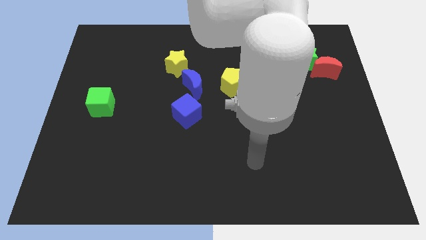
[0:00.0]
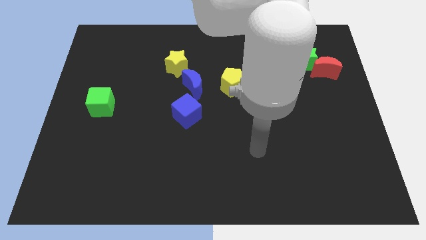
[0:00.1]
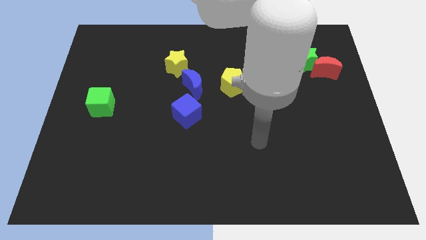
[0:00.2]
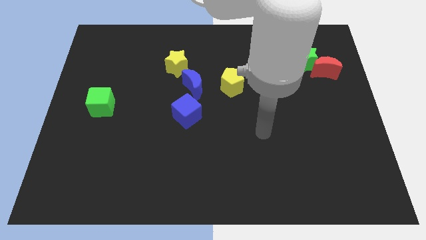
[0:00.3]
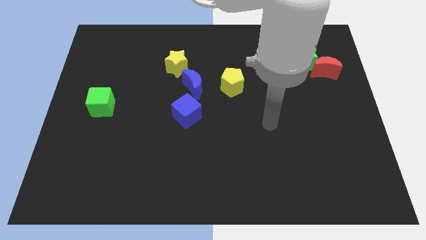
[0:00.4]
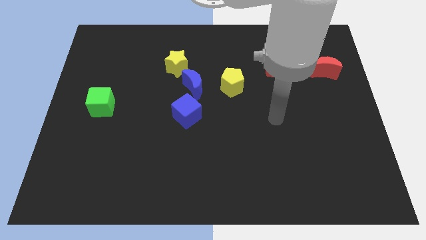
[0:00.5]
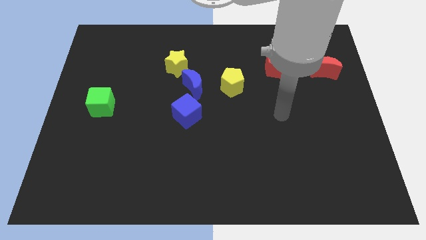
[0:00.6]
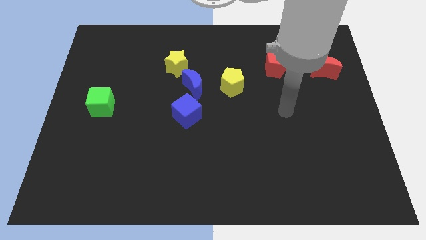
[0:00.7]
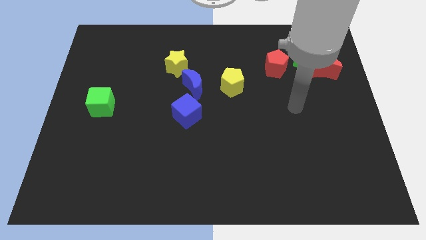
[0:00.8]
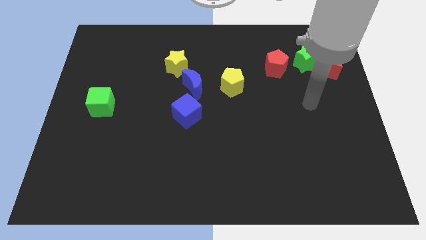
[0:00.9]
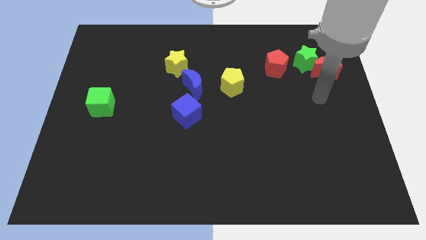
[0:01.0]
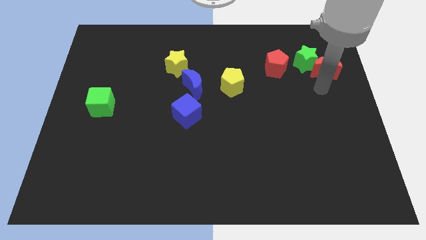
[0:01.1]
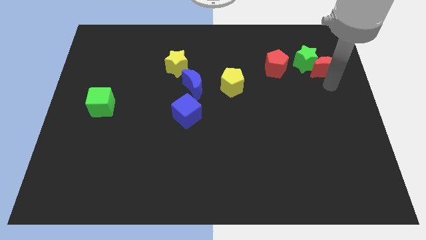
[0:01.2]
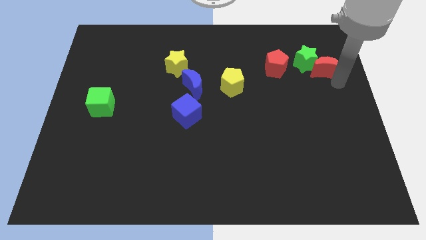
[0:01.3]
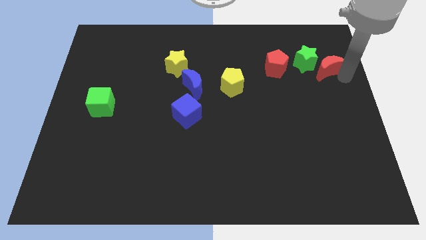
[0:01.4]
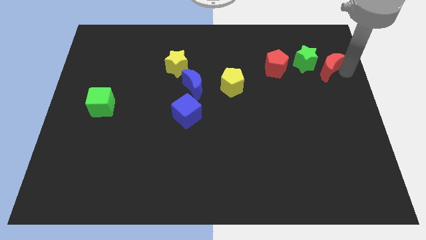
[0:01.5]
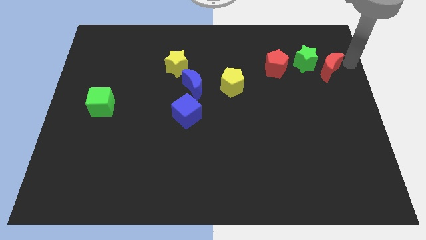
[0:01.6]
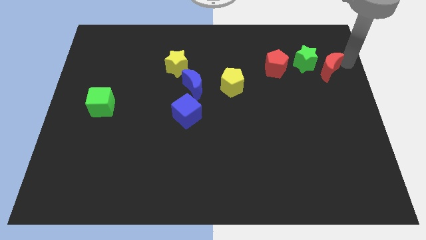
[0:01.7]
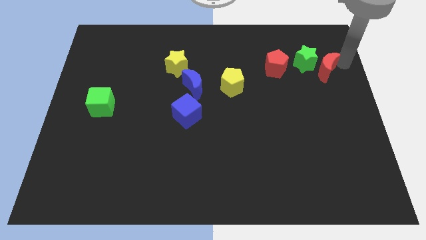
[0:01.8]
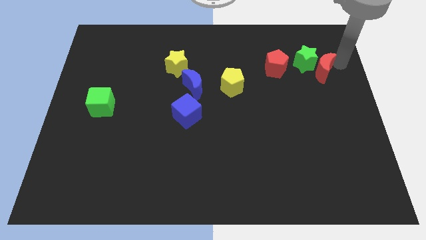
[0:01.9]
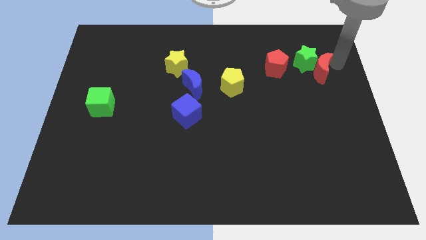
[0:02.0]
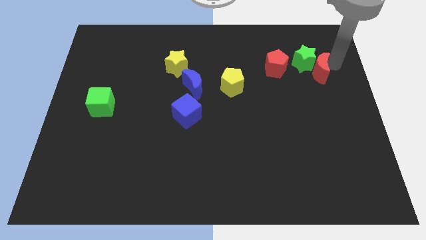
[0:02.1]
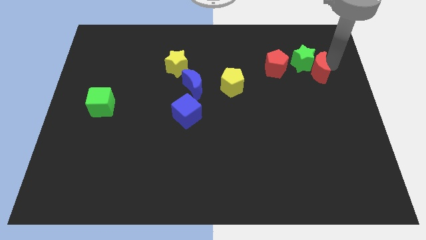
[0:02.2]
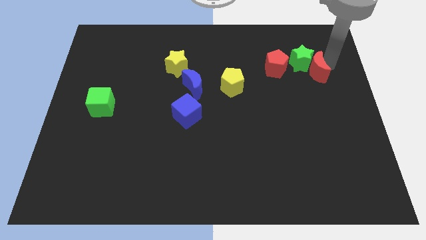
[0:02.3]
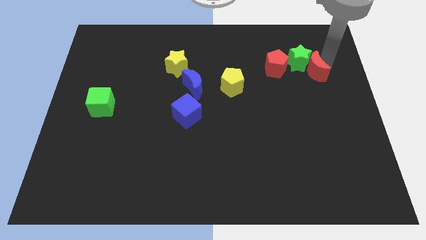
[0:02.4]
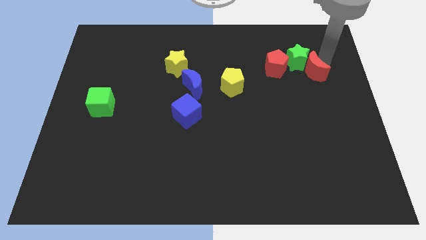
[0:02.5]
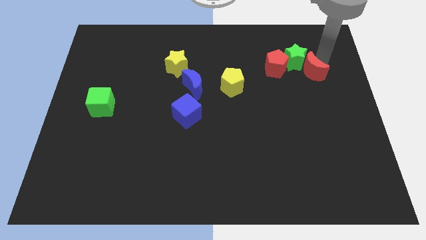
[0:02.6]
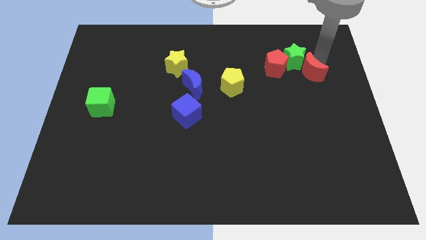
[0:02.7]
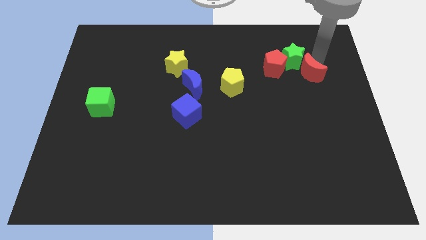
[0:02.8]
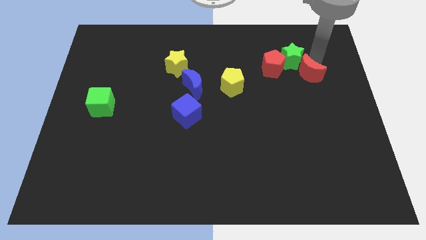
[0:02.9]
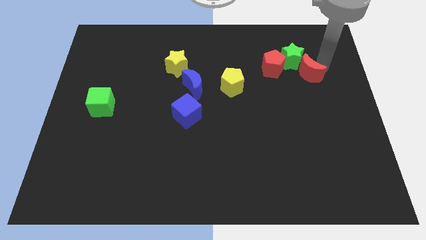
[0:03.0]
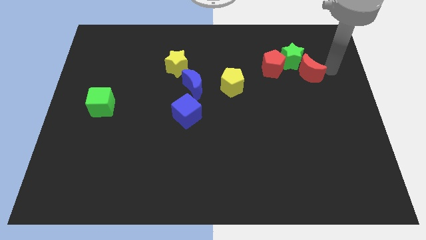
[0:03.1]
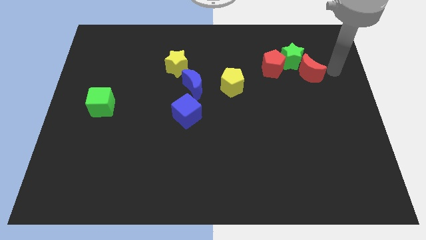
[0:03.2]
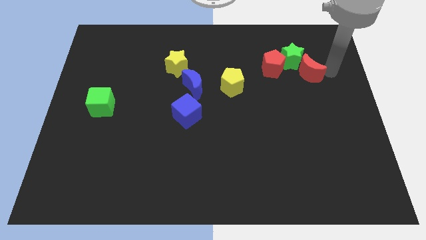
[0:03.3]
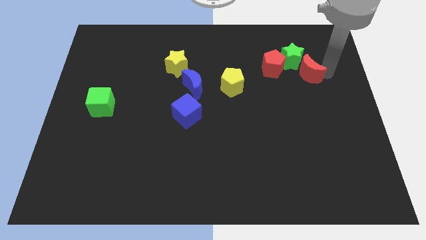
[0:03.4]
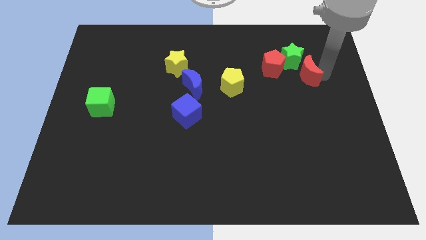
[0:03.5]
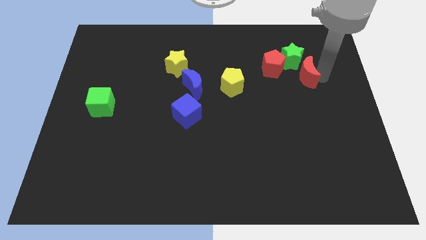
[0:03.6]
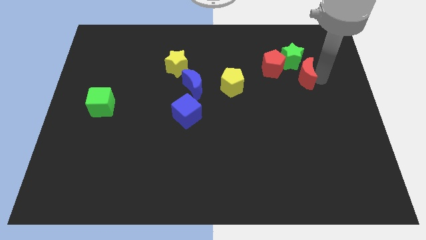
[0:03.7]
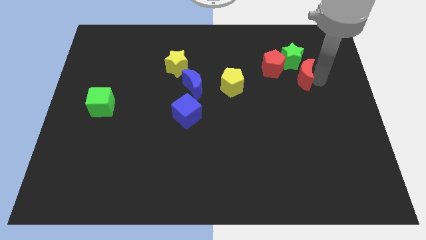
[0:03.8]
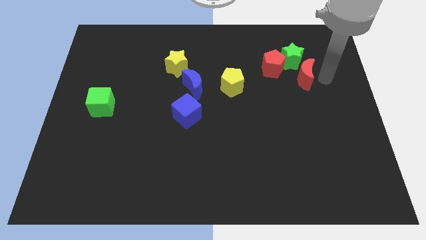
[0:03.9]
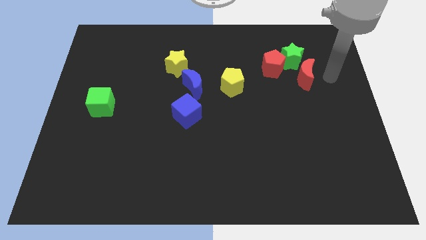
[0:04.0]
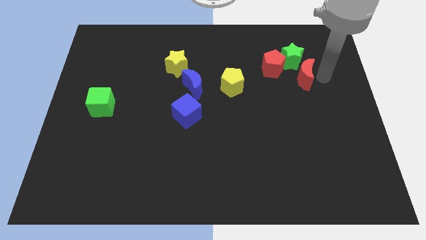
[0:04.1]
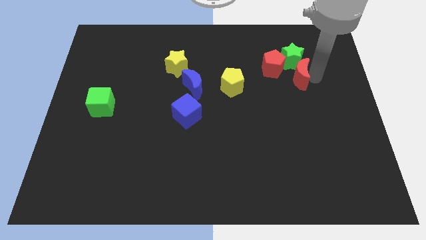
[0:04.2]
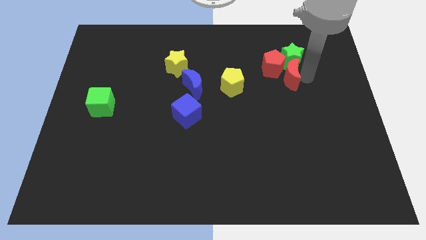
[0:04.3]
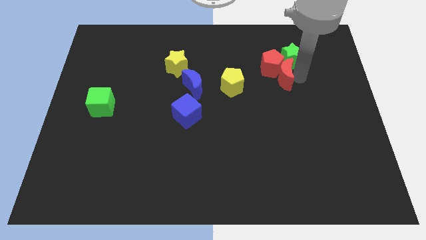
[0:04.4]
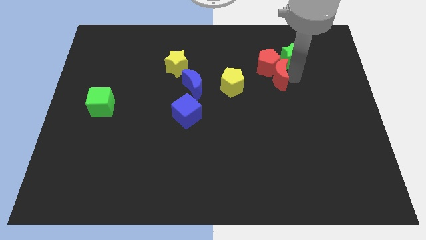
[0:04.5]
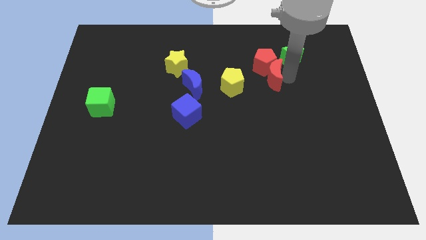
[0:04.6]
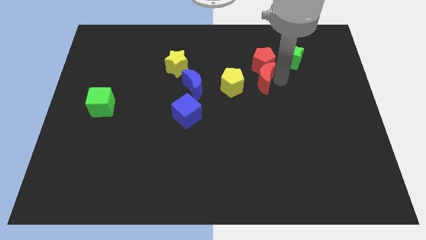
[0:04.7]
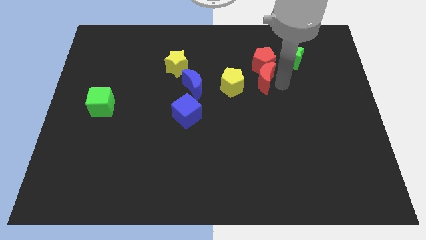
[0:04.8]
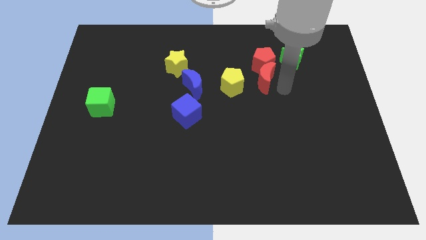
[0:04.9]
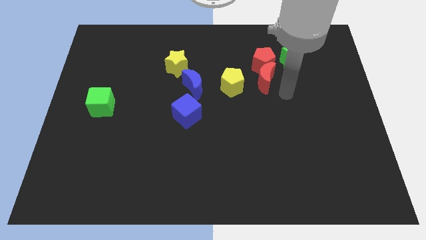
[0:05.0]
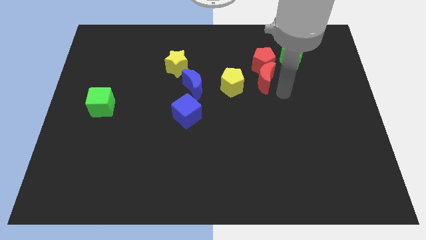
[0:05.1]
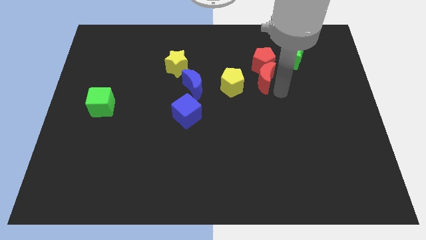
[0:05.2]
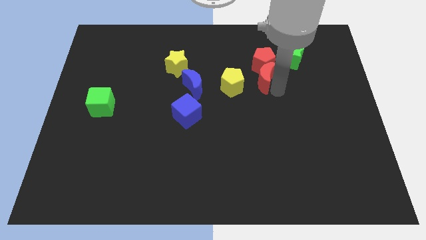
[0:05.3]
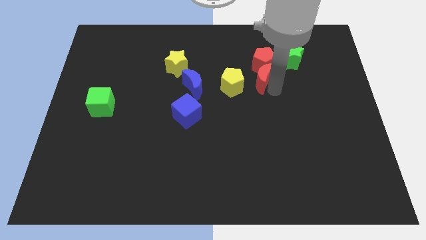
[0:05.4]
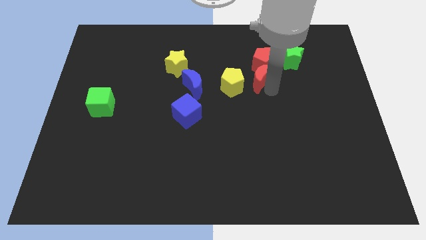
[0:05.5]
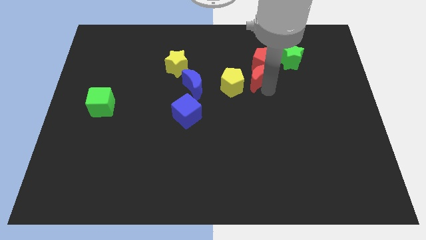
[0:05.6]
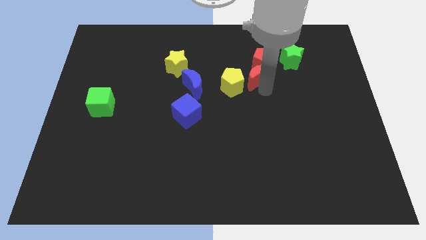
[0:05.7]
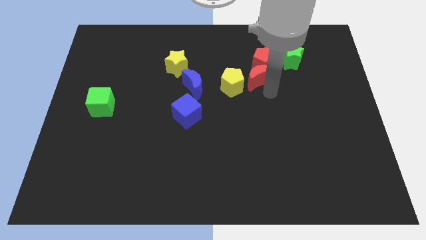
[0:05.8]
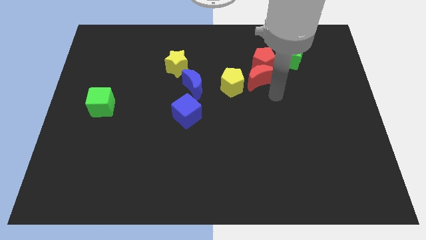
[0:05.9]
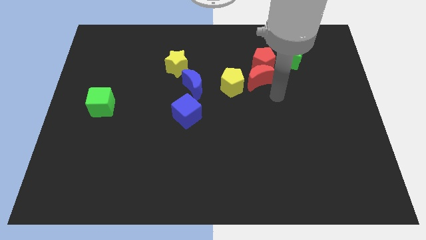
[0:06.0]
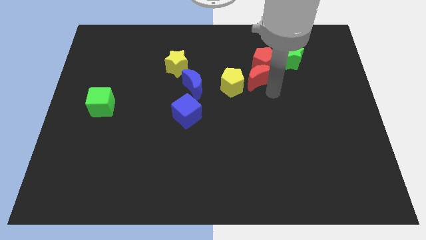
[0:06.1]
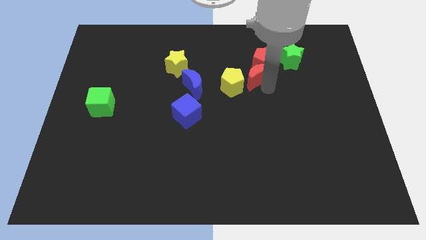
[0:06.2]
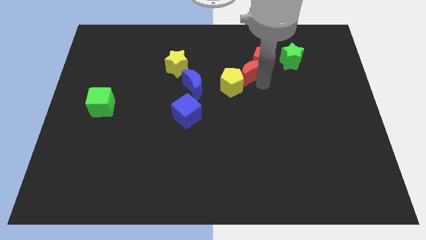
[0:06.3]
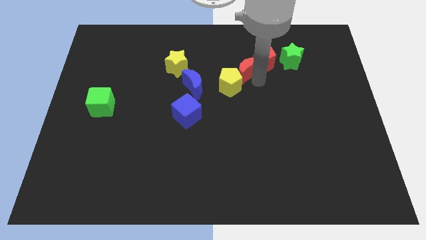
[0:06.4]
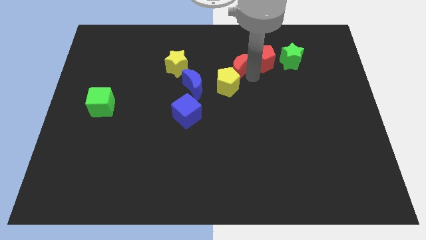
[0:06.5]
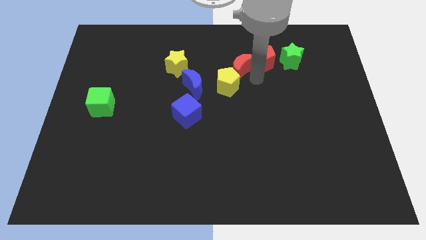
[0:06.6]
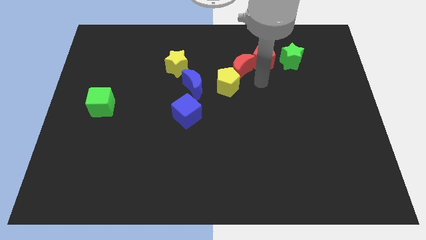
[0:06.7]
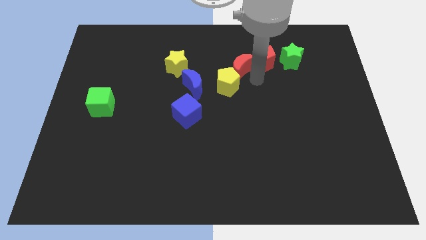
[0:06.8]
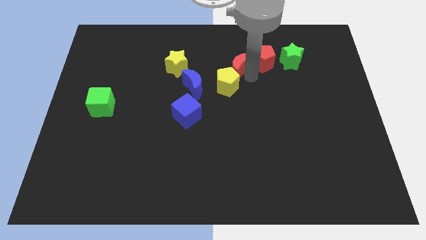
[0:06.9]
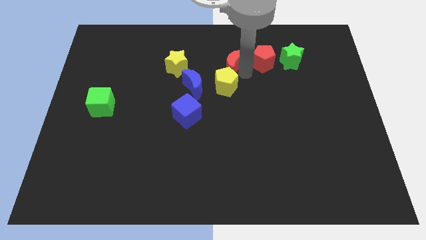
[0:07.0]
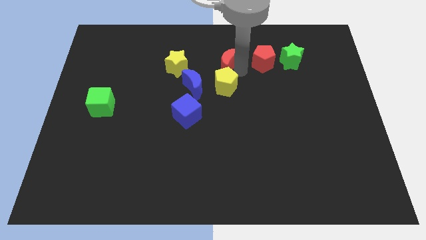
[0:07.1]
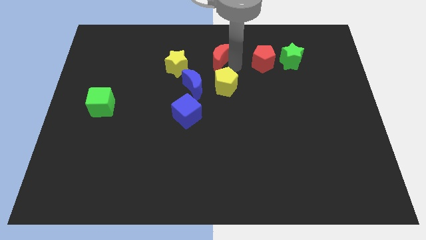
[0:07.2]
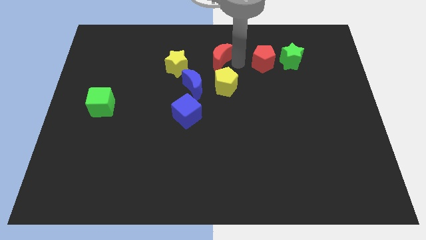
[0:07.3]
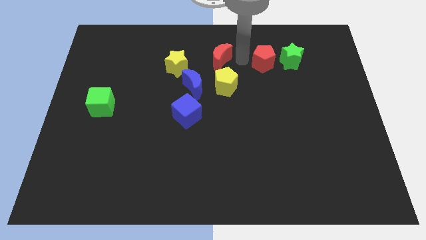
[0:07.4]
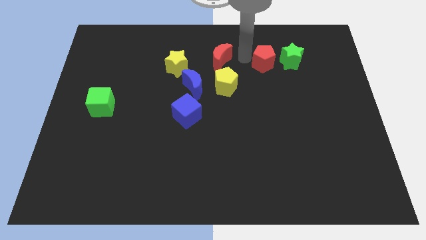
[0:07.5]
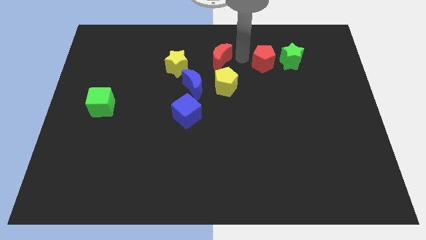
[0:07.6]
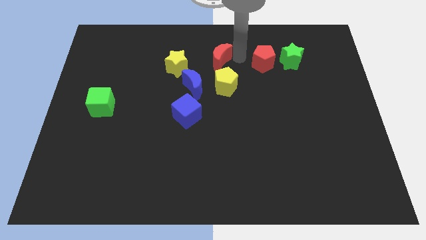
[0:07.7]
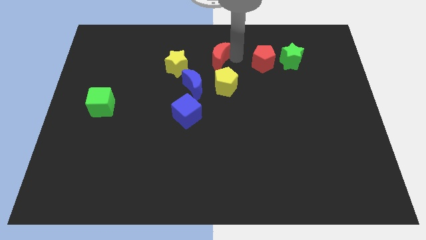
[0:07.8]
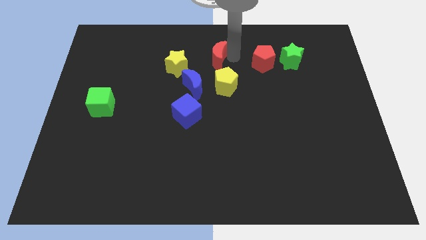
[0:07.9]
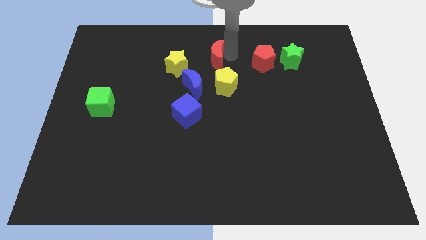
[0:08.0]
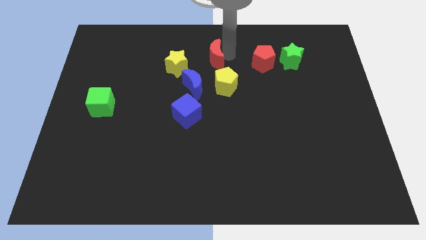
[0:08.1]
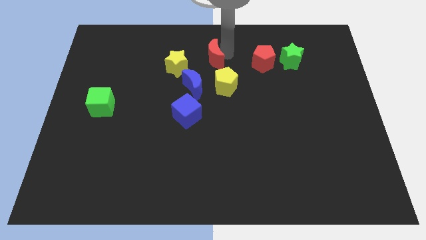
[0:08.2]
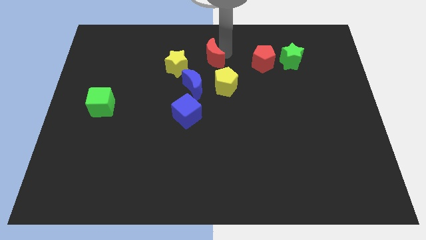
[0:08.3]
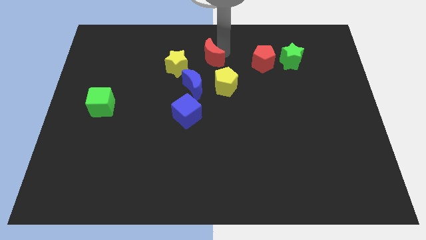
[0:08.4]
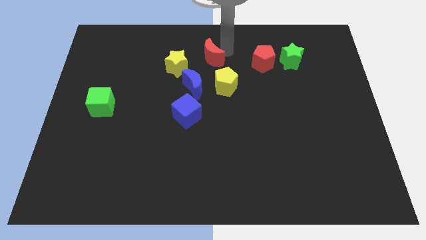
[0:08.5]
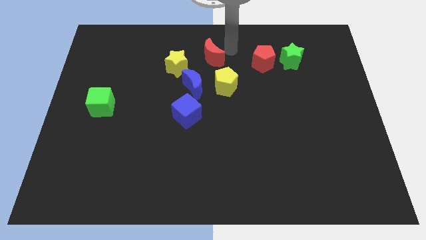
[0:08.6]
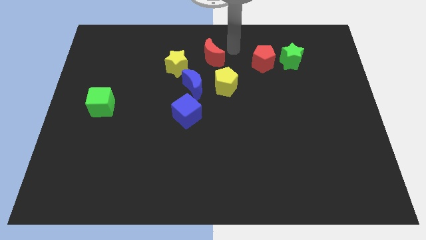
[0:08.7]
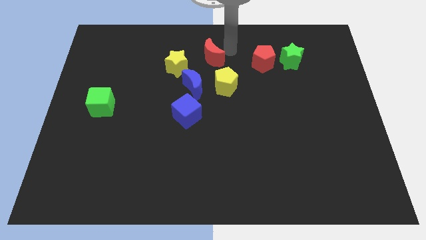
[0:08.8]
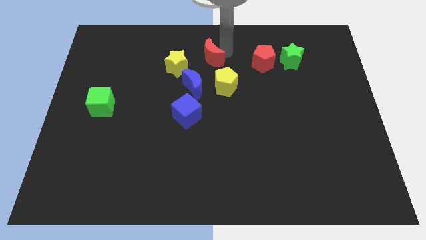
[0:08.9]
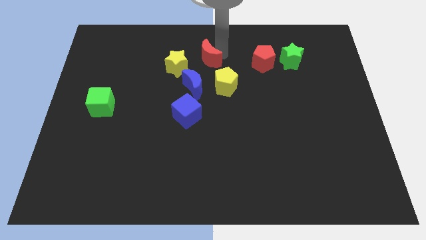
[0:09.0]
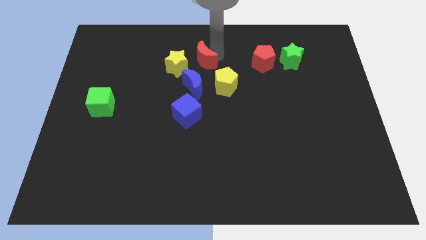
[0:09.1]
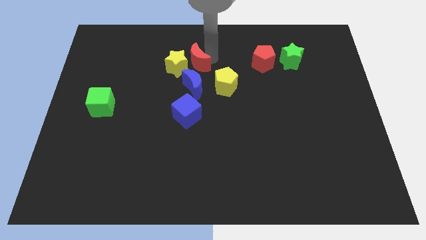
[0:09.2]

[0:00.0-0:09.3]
move the red moon to the yellow star
